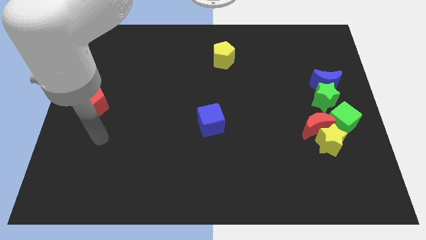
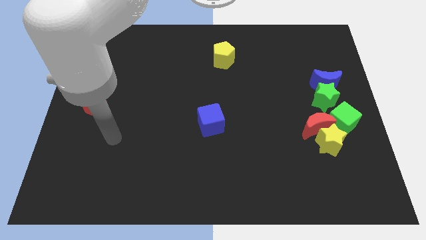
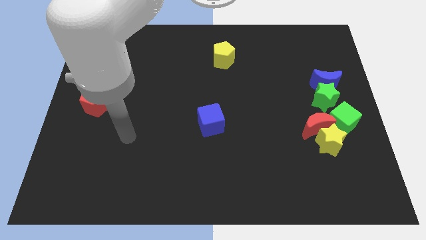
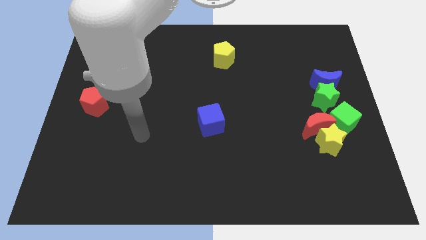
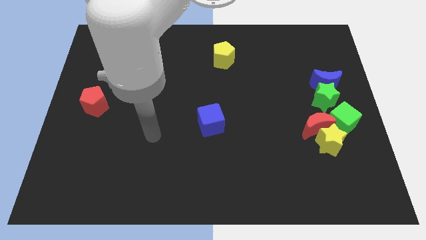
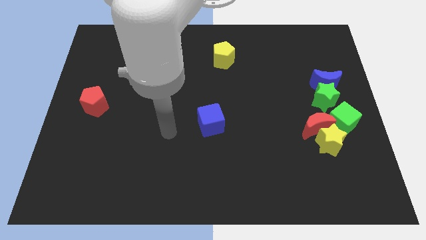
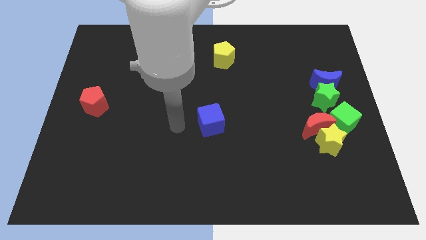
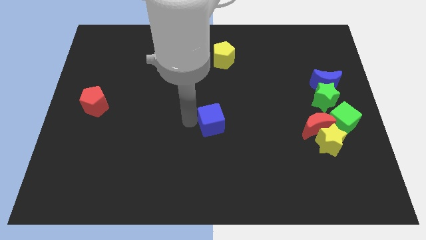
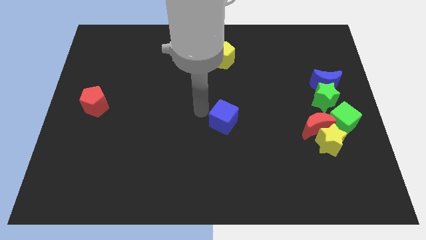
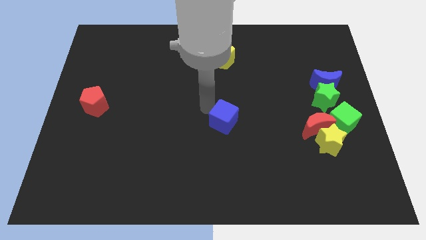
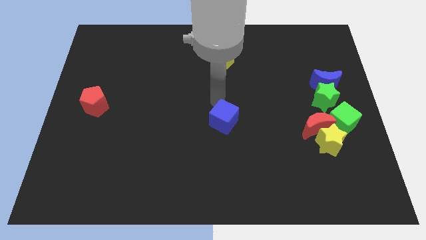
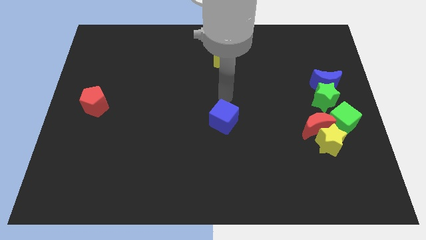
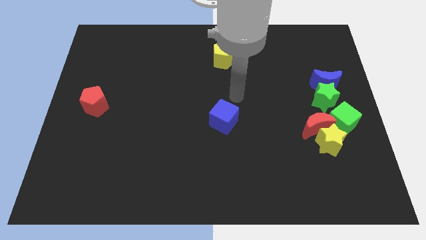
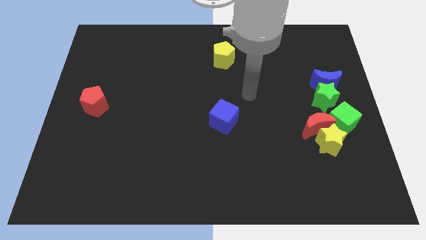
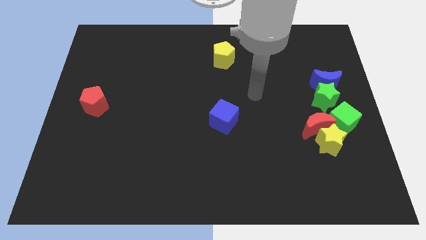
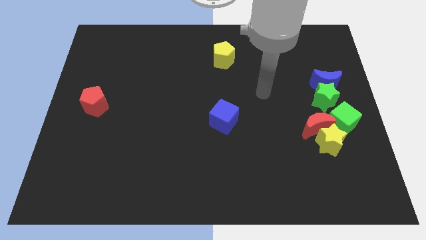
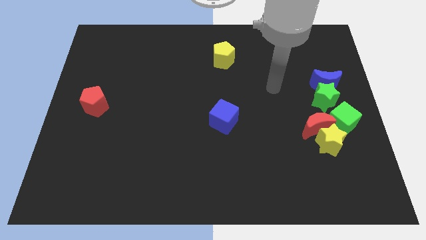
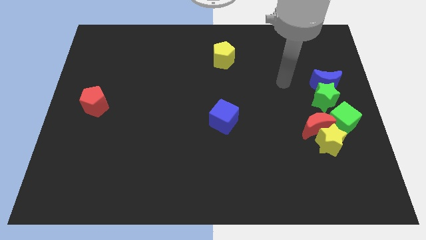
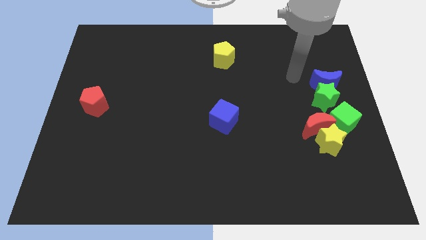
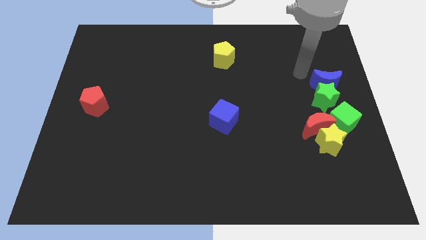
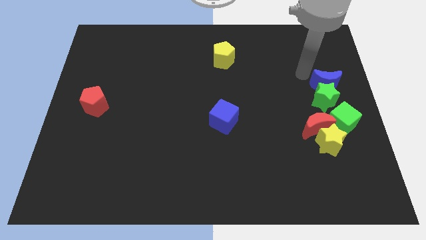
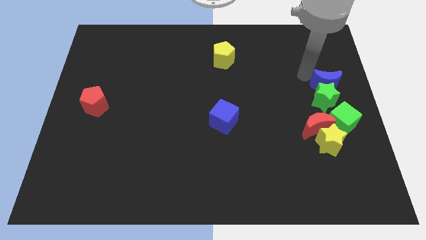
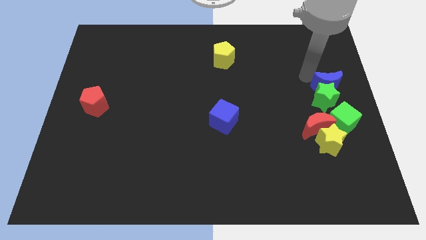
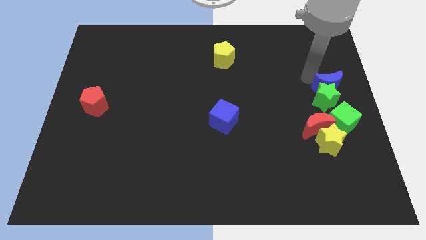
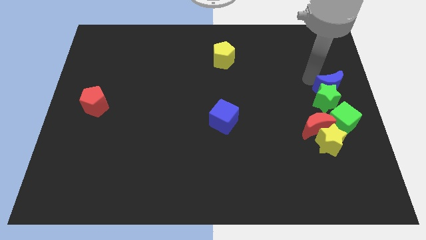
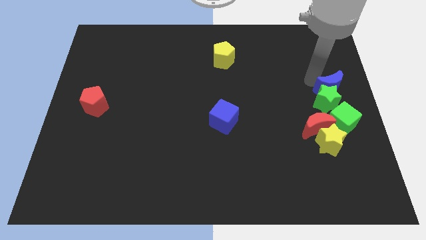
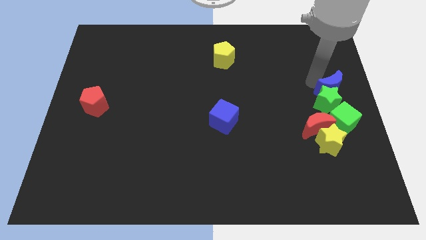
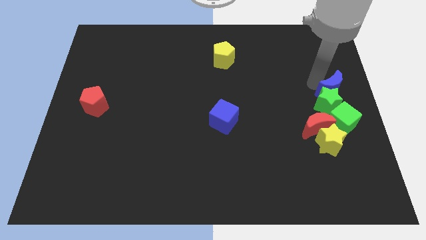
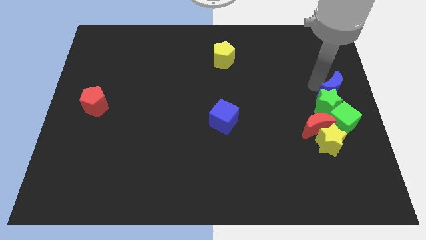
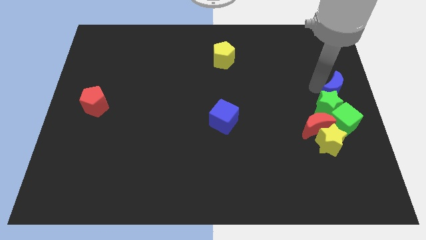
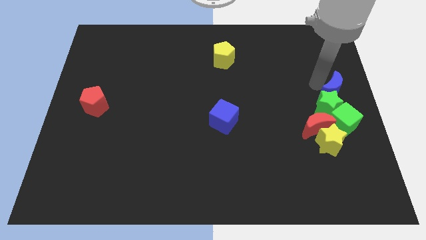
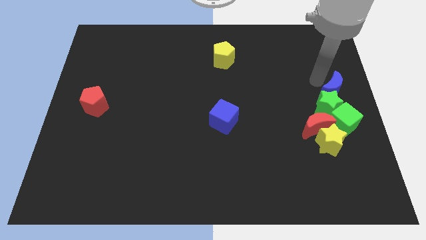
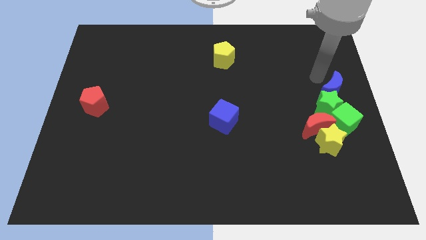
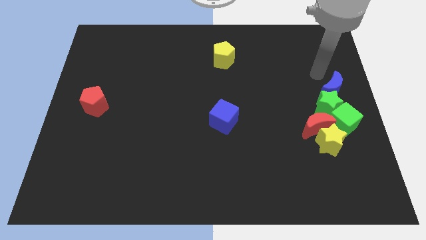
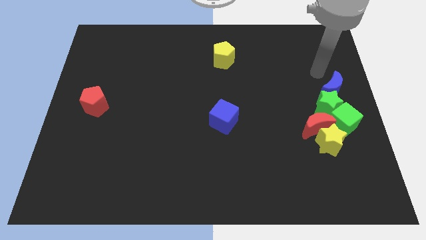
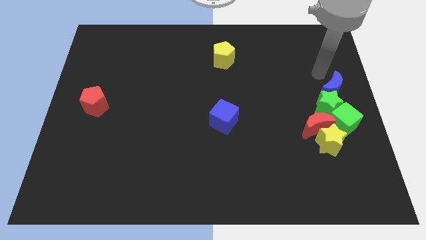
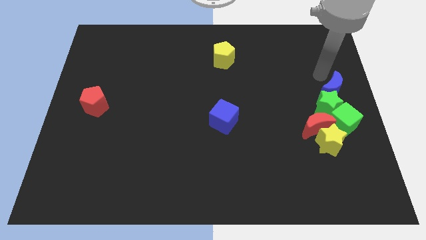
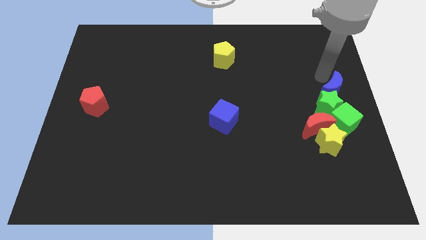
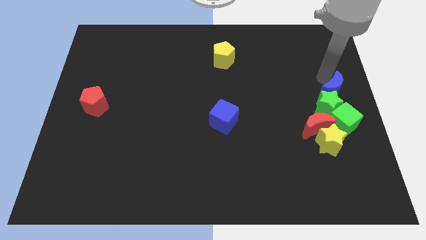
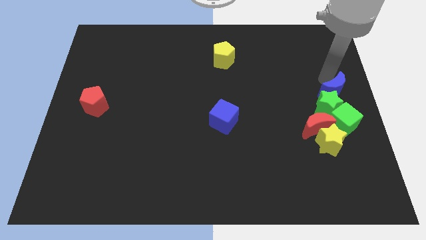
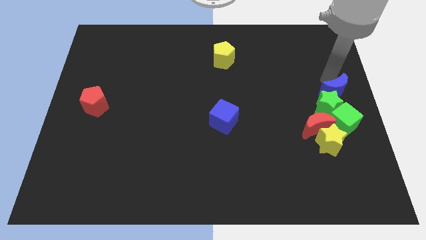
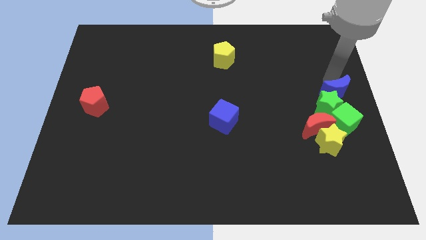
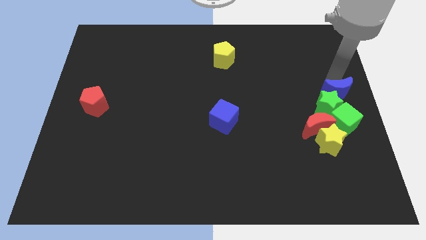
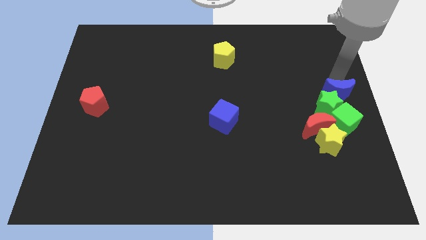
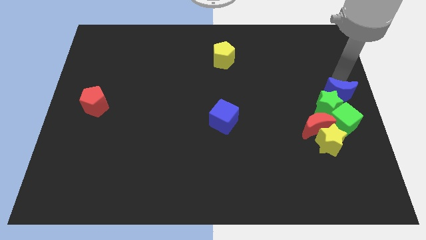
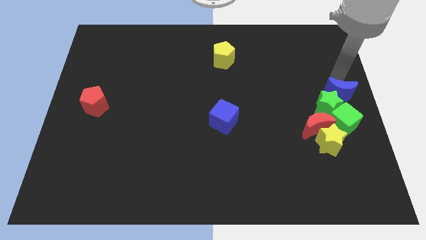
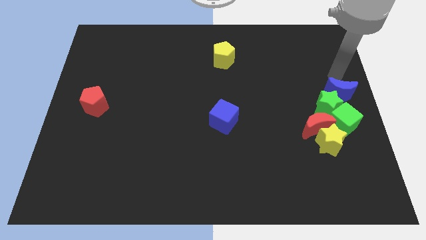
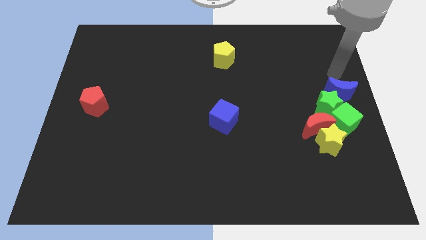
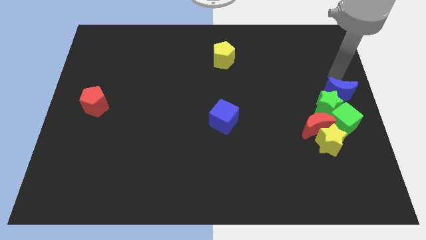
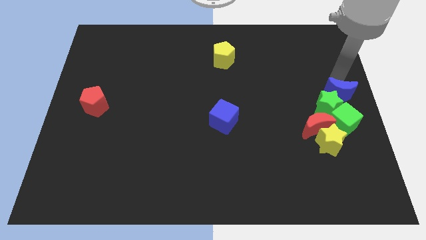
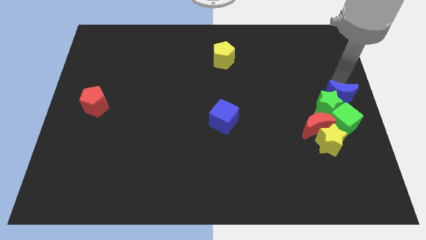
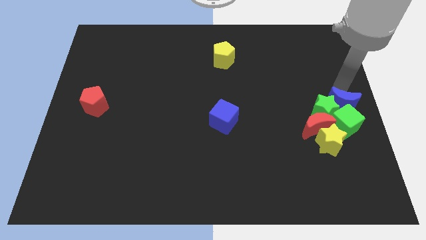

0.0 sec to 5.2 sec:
push the blue moon next to the green cube

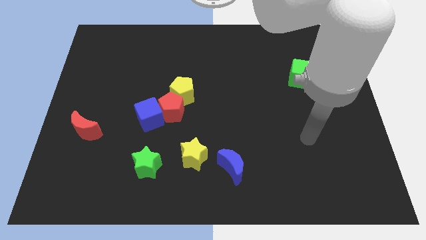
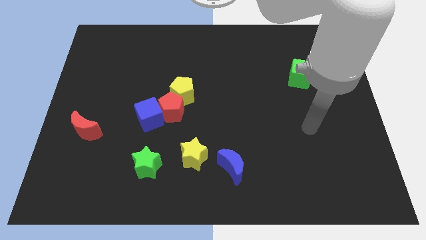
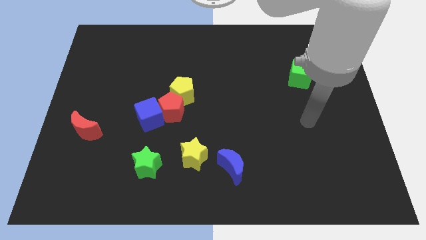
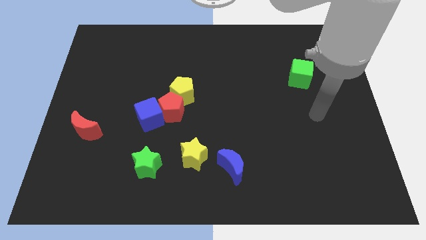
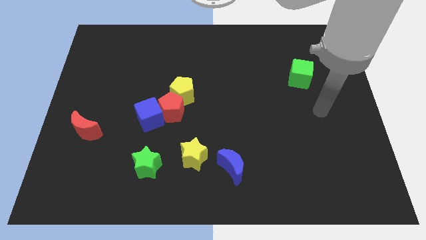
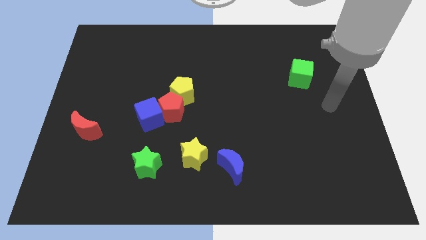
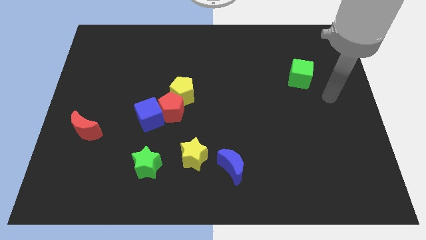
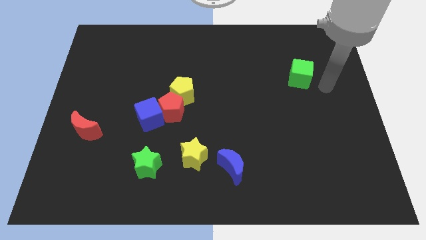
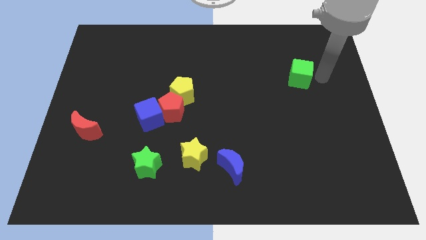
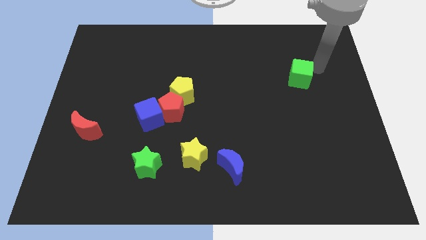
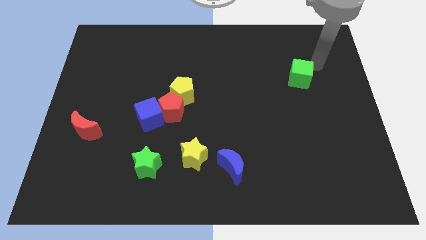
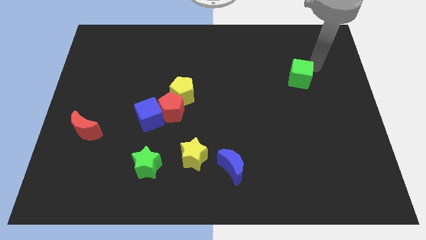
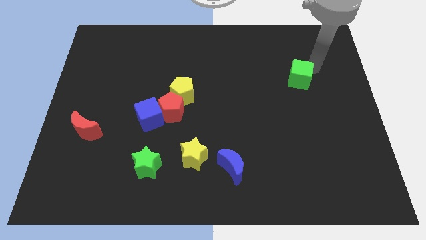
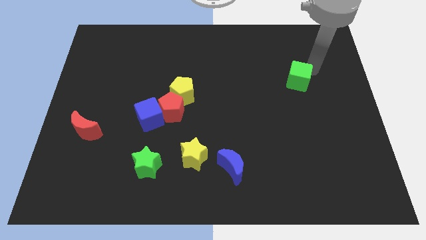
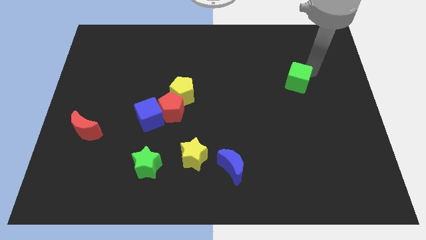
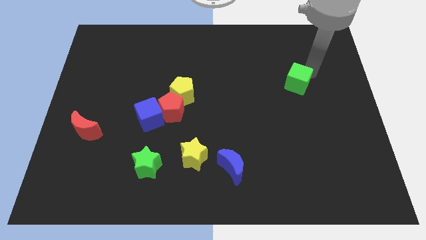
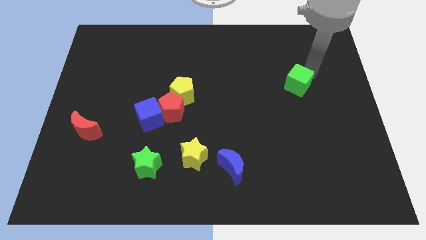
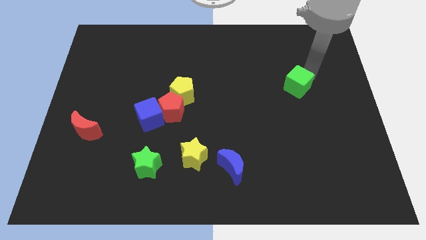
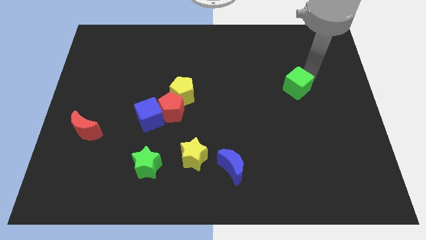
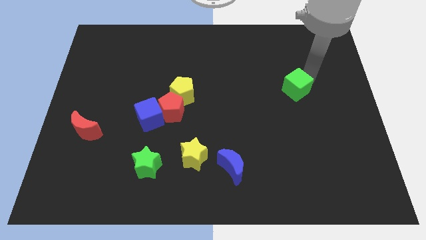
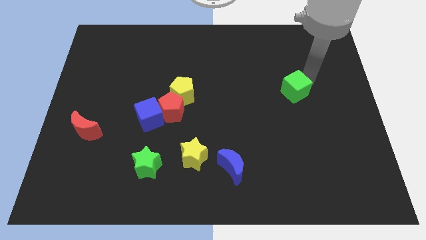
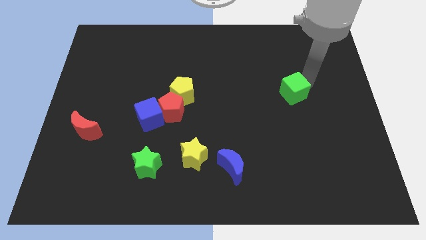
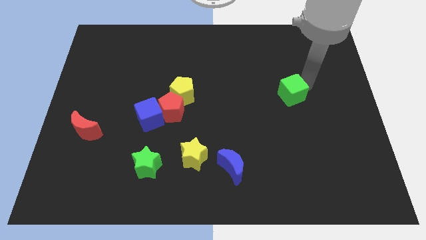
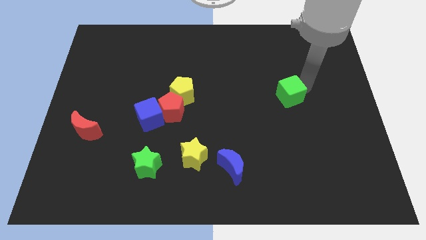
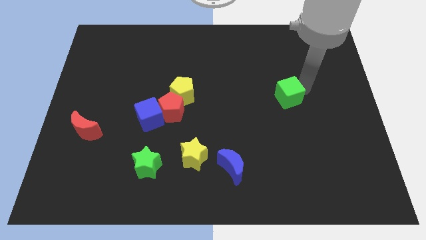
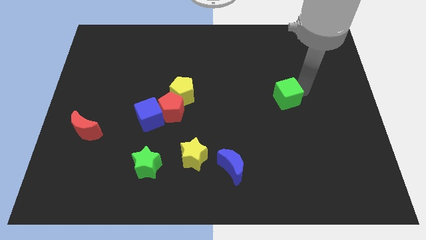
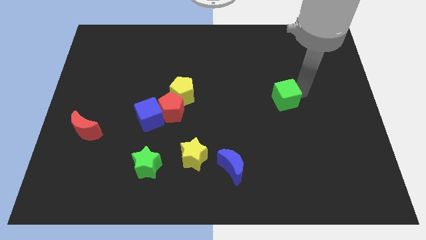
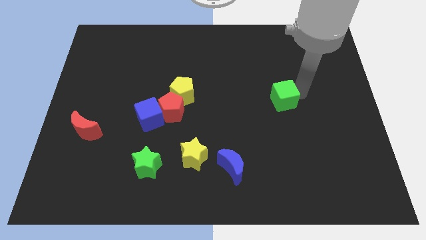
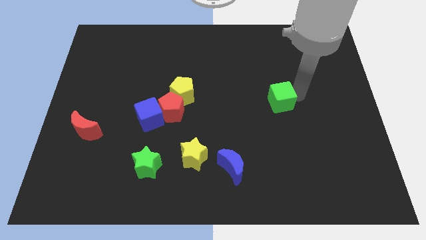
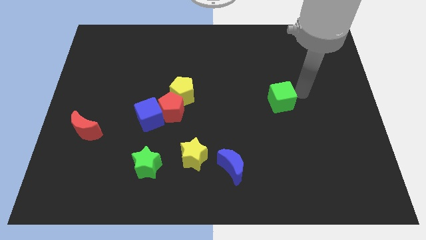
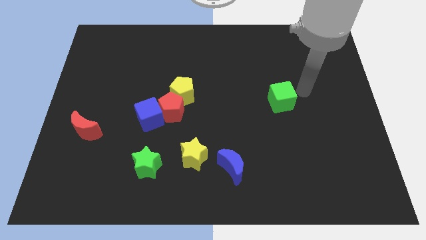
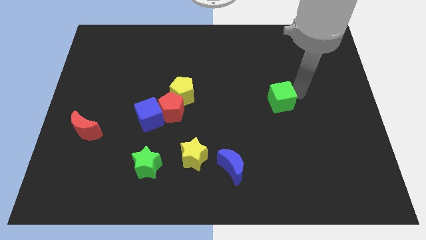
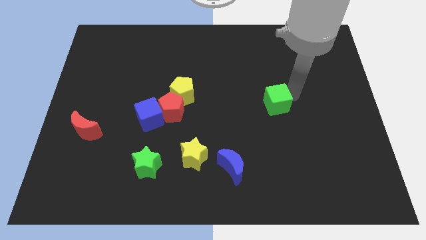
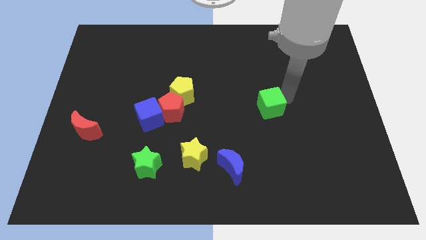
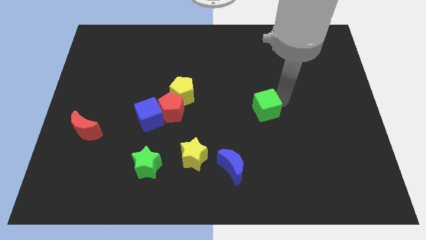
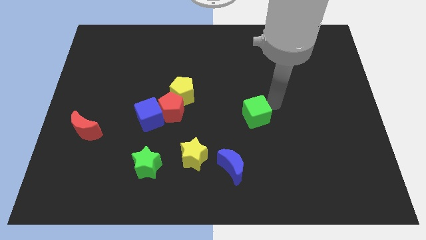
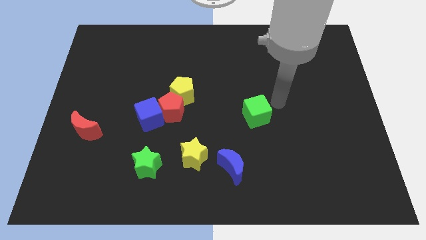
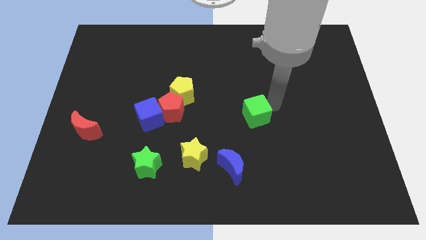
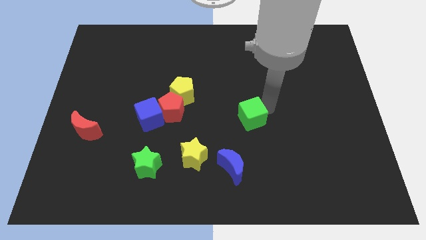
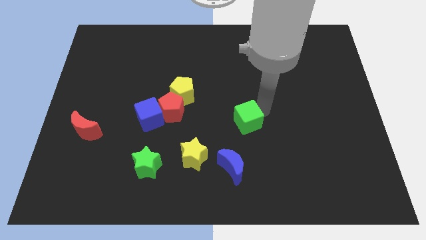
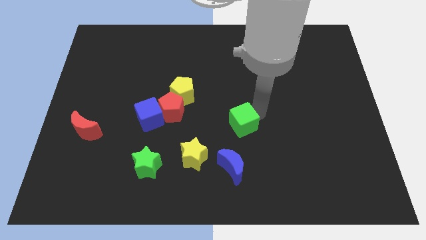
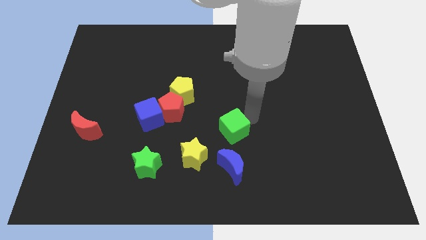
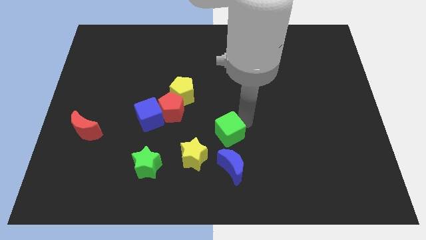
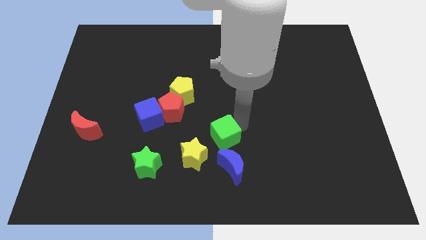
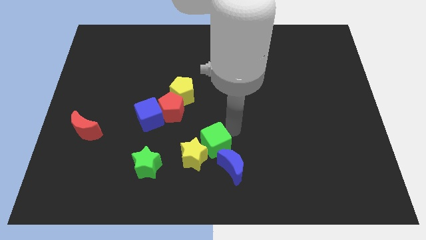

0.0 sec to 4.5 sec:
slide the green cube close to the yellow star
